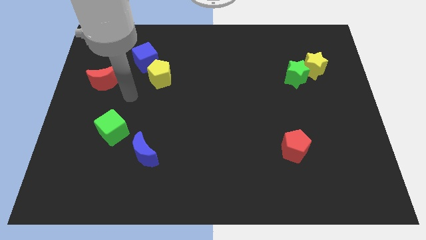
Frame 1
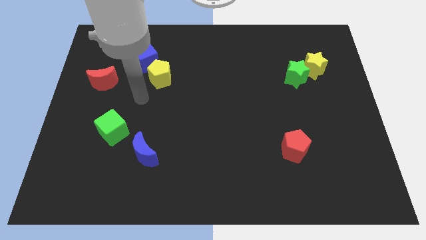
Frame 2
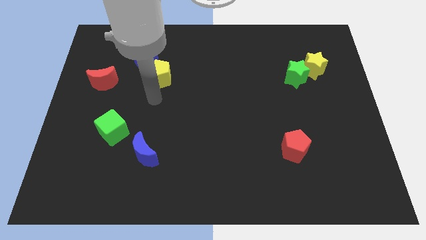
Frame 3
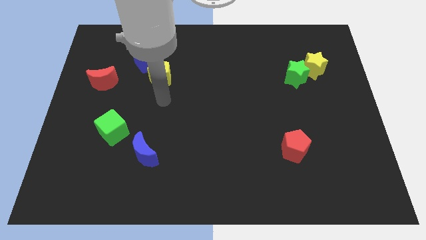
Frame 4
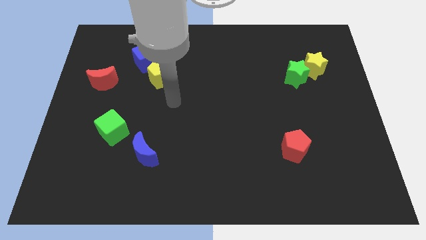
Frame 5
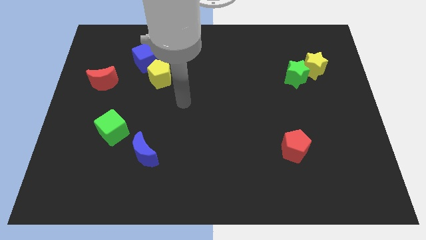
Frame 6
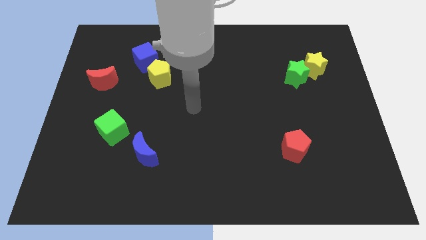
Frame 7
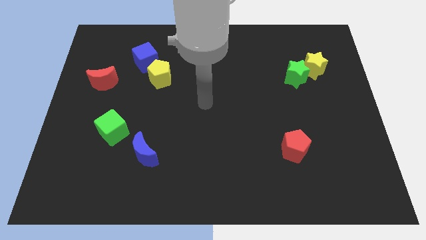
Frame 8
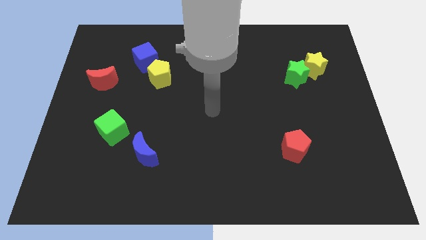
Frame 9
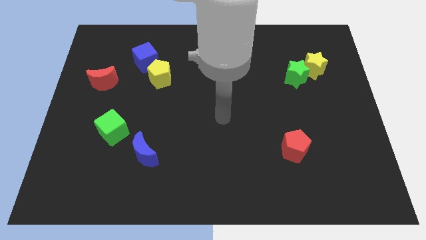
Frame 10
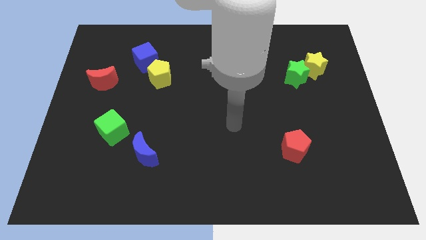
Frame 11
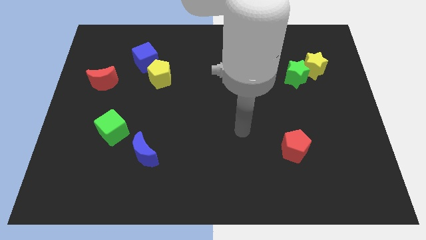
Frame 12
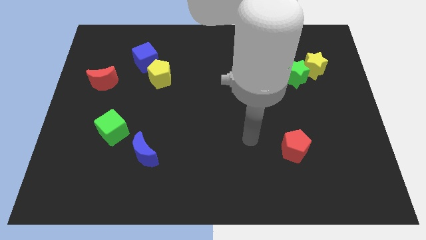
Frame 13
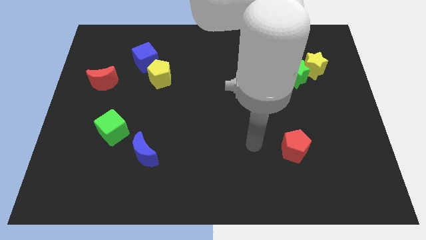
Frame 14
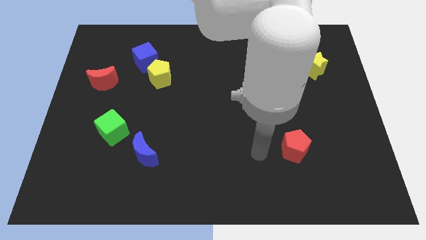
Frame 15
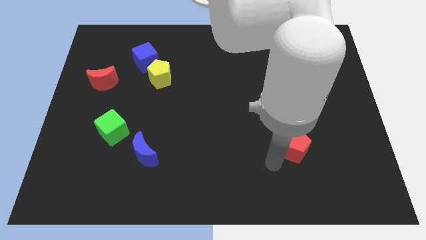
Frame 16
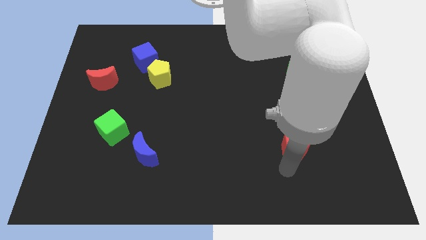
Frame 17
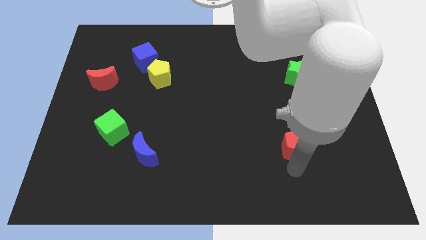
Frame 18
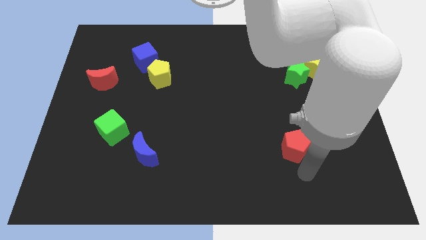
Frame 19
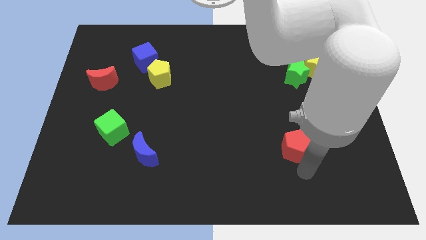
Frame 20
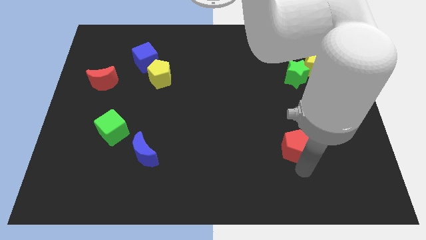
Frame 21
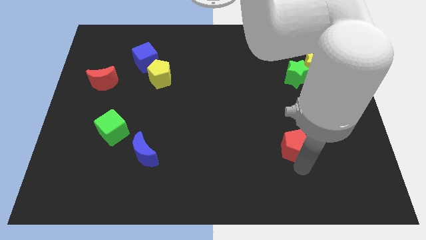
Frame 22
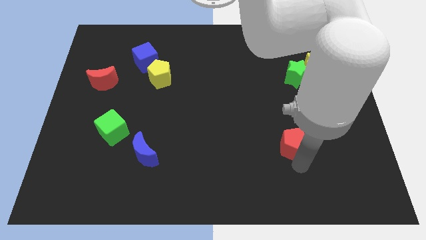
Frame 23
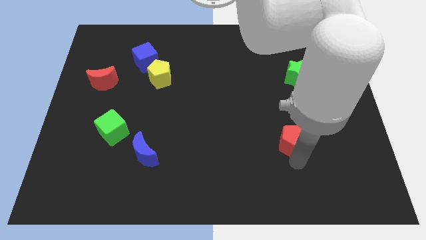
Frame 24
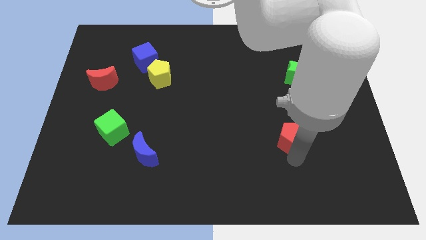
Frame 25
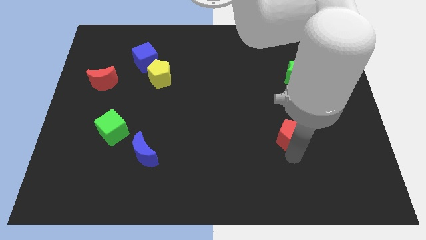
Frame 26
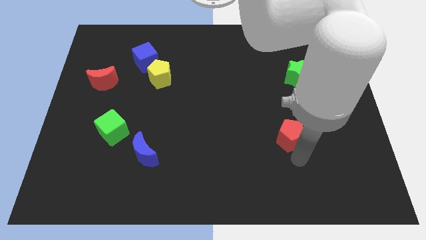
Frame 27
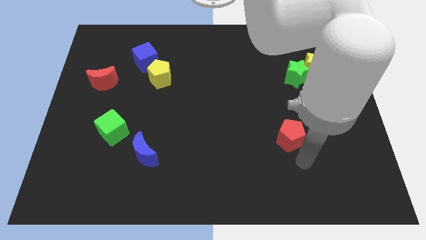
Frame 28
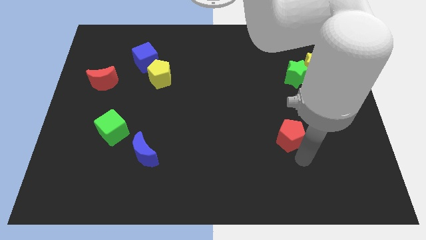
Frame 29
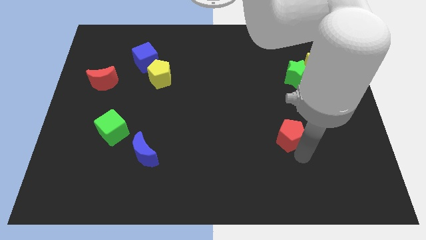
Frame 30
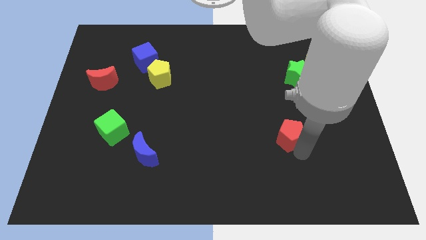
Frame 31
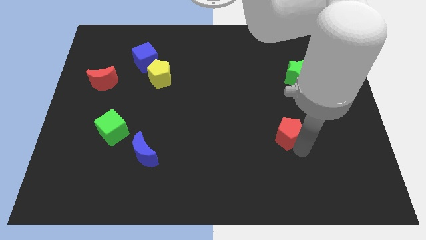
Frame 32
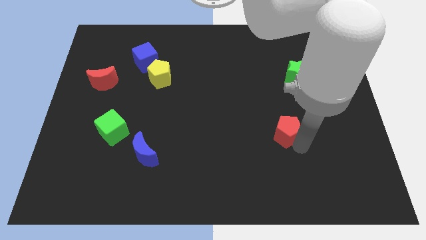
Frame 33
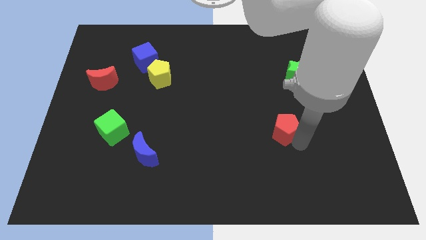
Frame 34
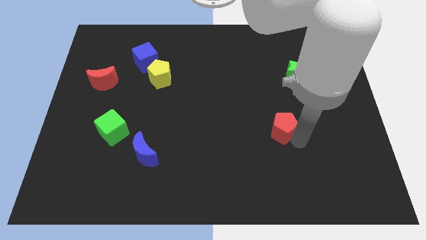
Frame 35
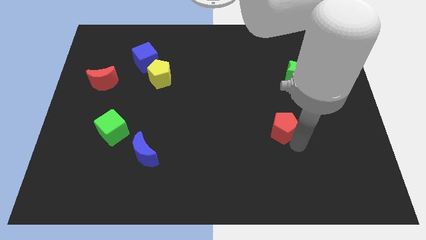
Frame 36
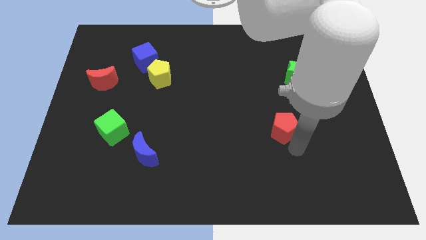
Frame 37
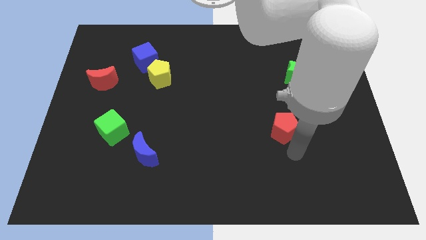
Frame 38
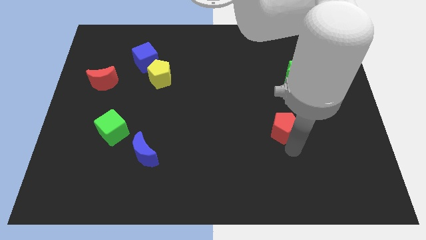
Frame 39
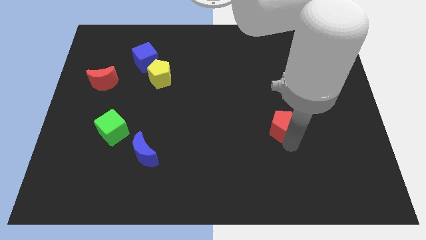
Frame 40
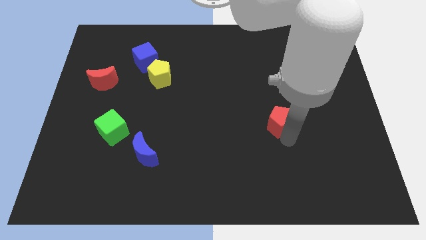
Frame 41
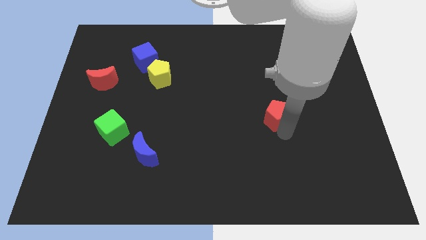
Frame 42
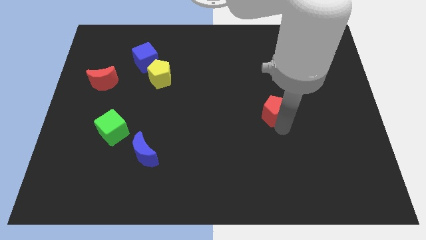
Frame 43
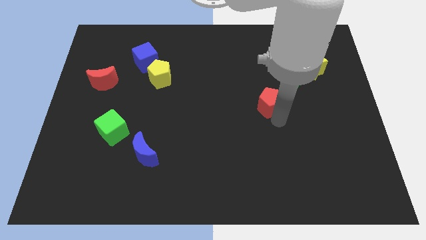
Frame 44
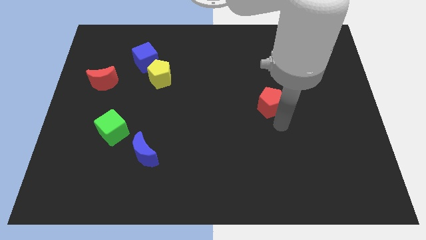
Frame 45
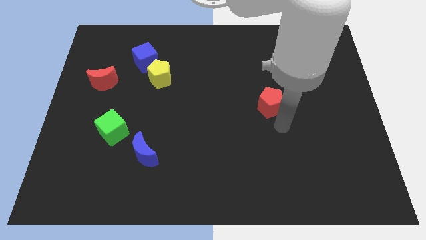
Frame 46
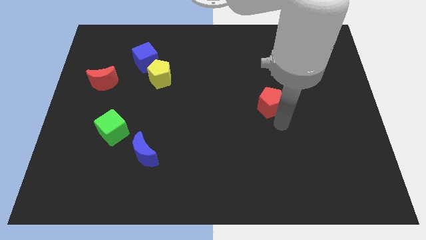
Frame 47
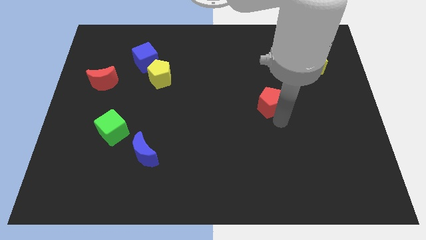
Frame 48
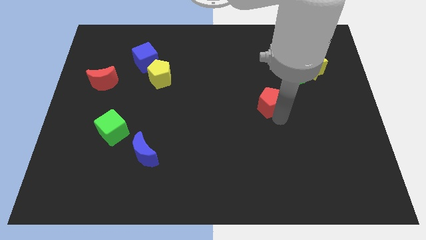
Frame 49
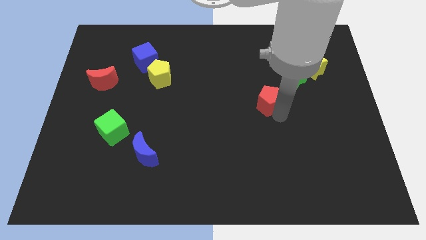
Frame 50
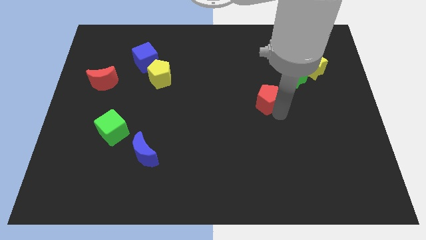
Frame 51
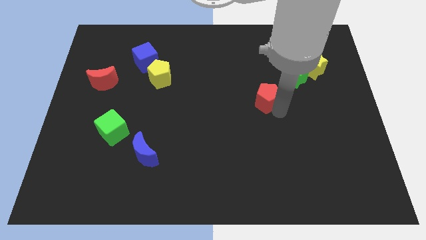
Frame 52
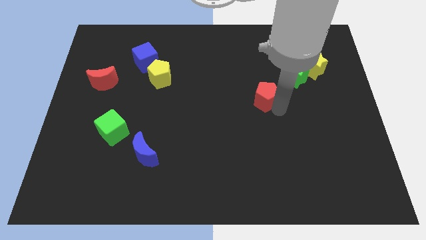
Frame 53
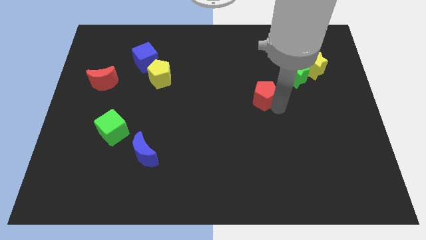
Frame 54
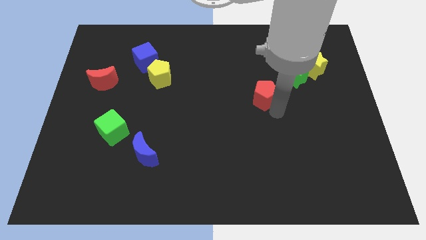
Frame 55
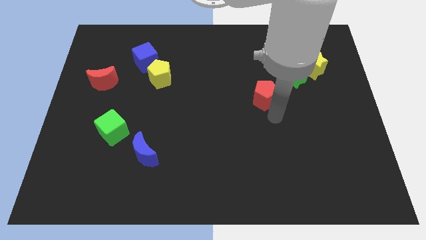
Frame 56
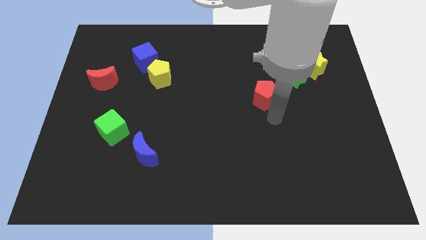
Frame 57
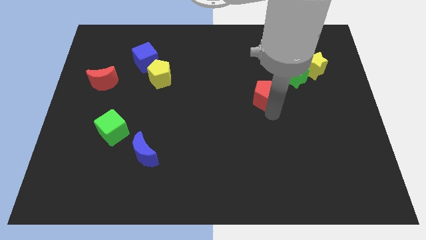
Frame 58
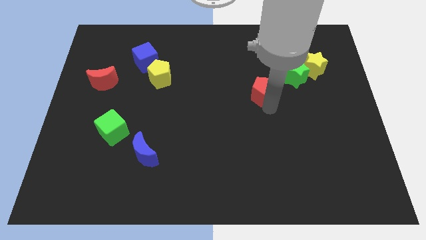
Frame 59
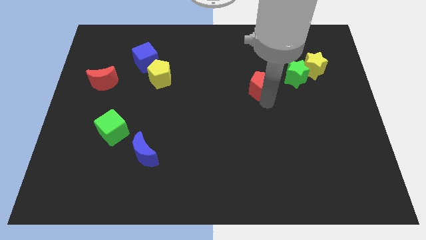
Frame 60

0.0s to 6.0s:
slide the red pentagon just left of the green star

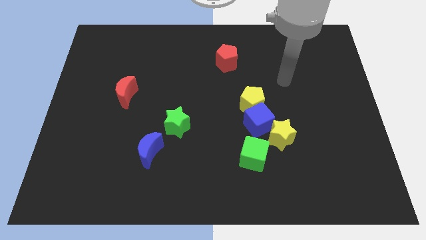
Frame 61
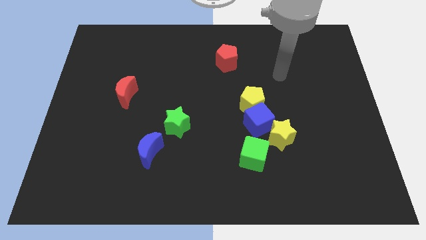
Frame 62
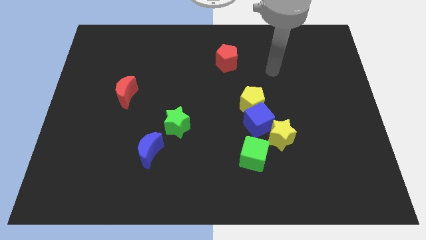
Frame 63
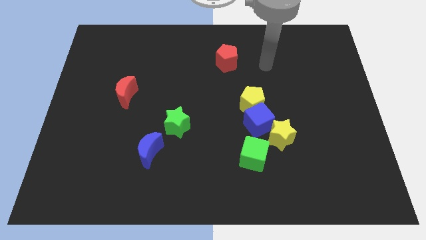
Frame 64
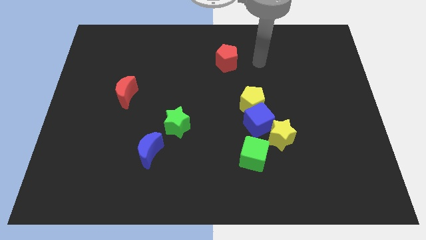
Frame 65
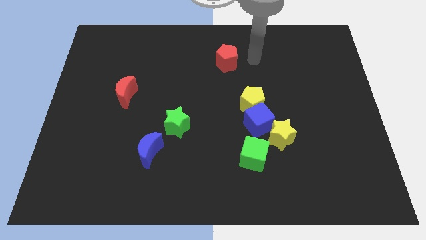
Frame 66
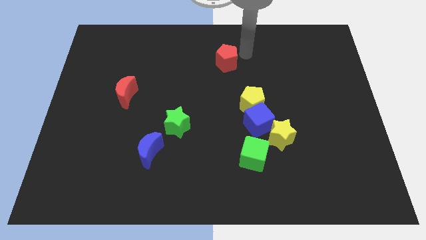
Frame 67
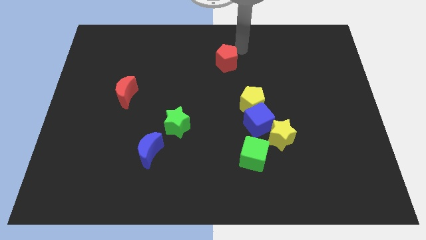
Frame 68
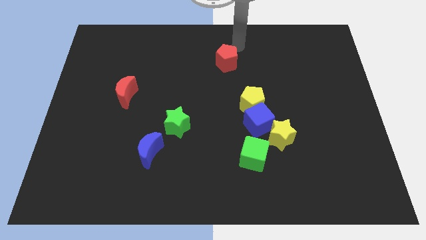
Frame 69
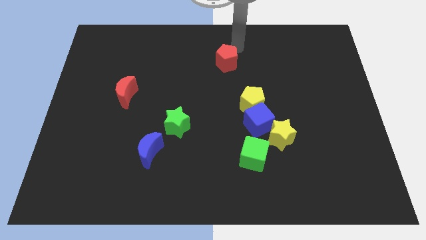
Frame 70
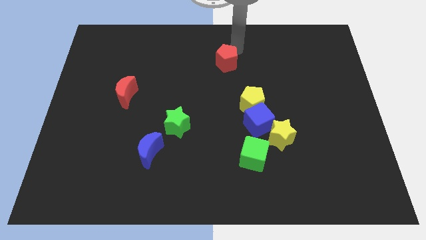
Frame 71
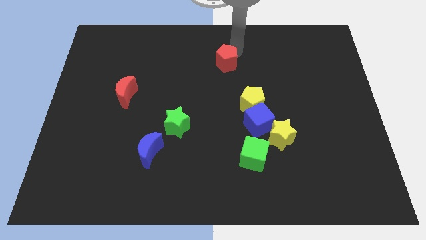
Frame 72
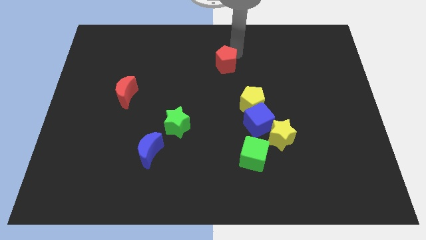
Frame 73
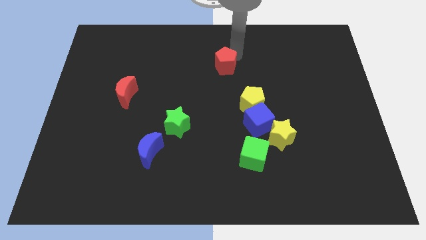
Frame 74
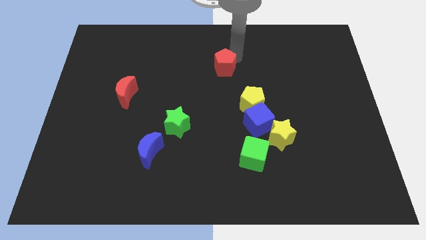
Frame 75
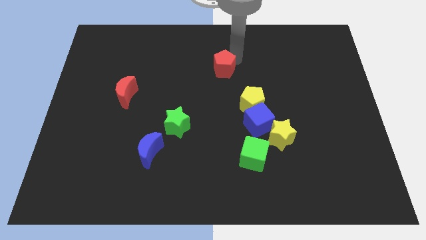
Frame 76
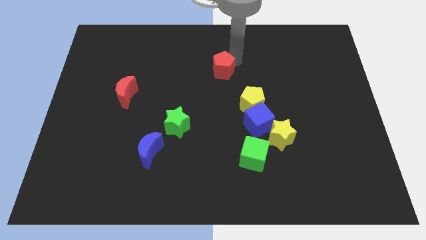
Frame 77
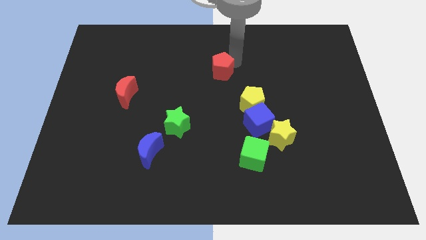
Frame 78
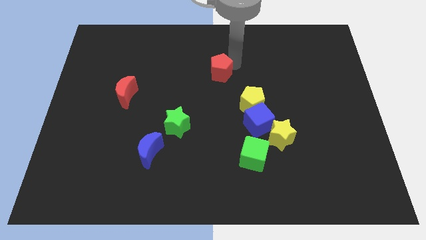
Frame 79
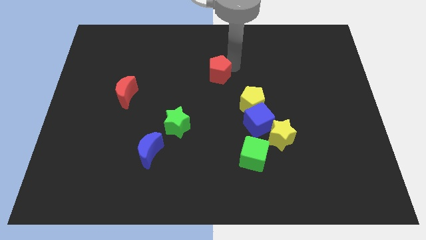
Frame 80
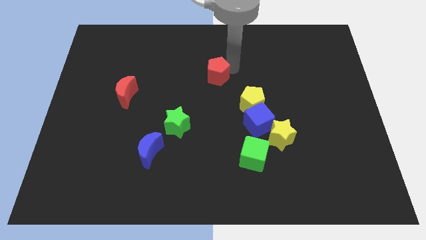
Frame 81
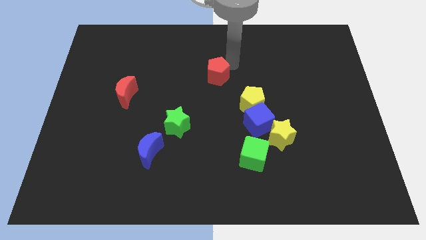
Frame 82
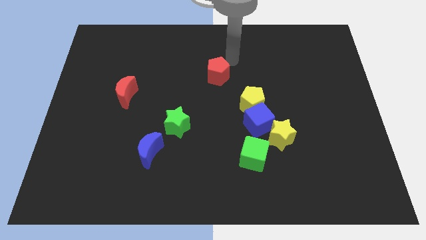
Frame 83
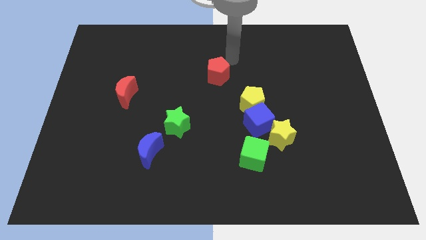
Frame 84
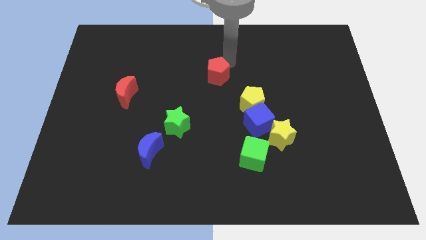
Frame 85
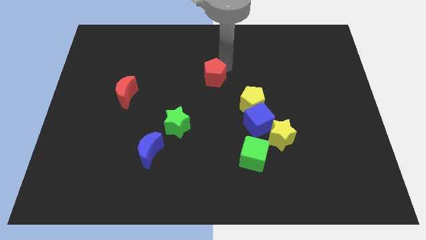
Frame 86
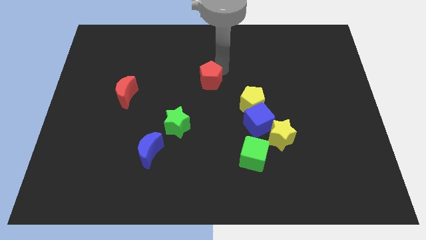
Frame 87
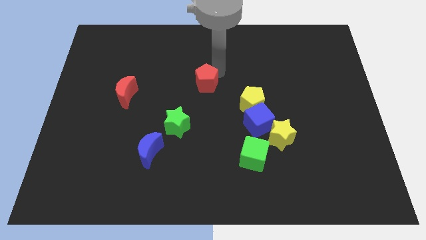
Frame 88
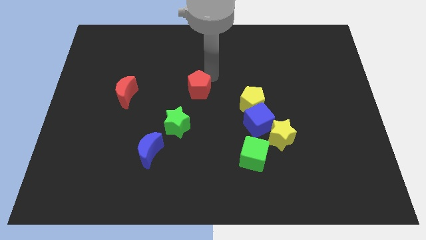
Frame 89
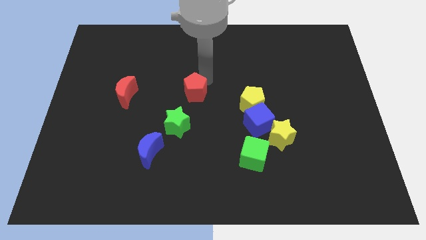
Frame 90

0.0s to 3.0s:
put the red pentagon to the top right side of the green star
